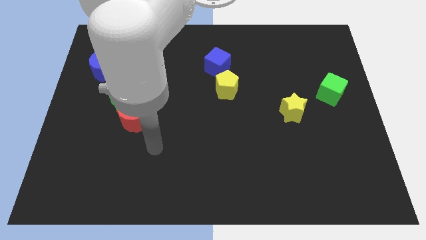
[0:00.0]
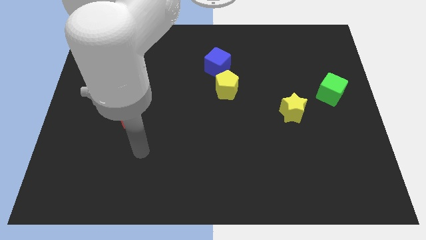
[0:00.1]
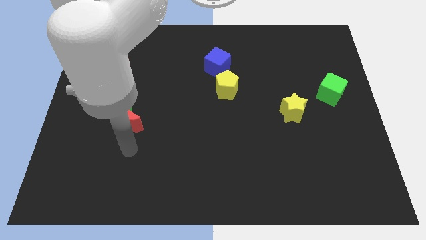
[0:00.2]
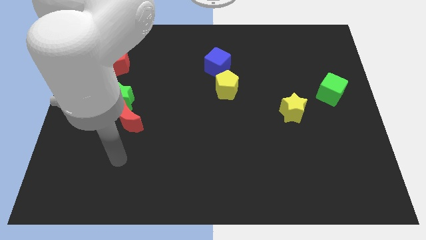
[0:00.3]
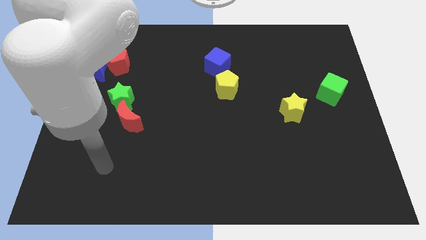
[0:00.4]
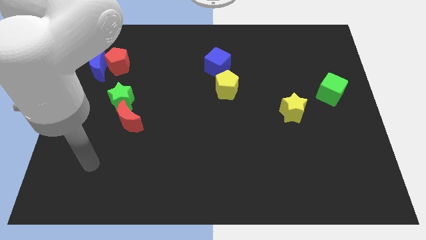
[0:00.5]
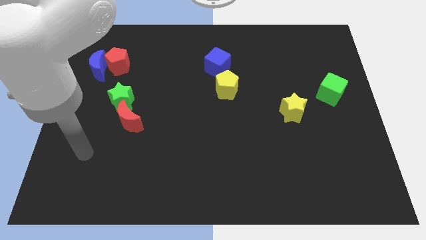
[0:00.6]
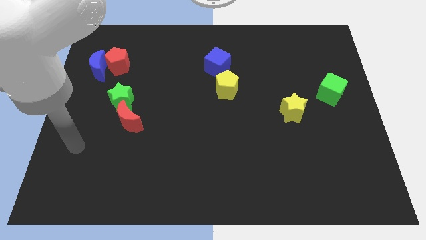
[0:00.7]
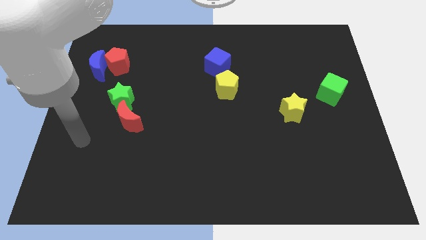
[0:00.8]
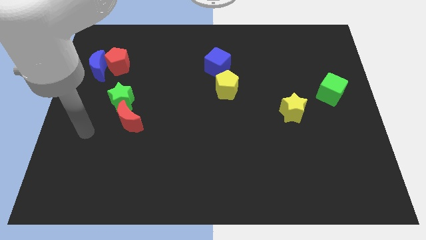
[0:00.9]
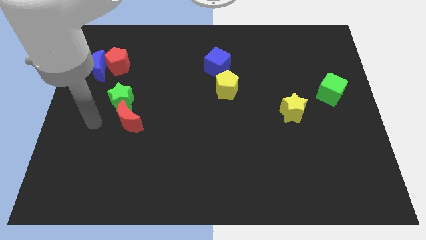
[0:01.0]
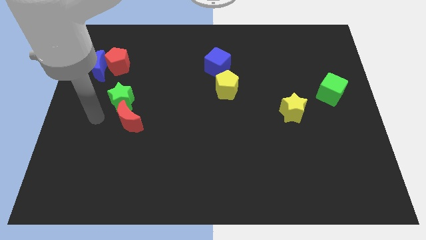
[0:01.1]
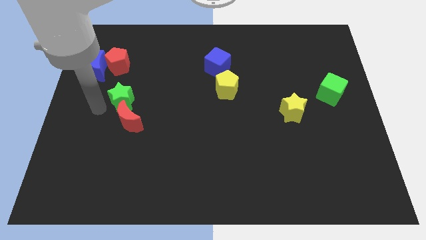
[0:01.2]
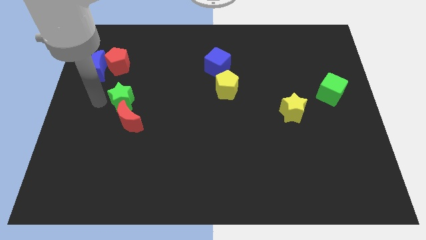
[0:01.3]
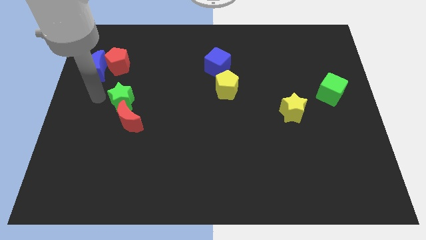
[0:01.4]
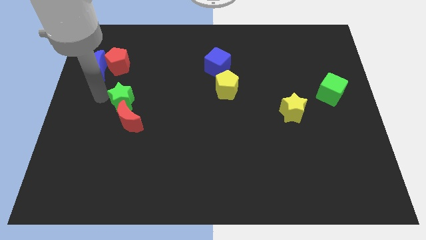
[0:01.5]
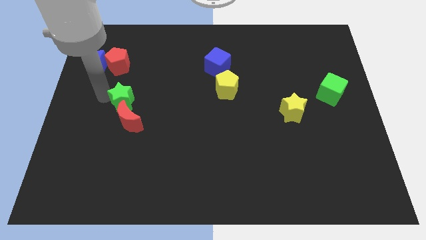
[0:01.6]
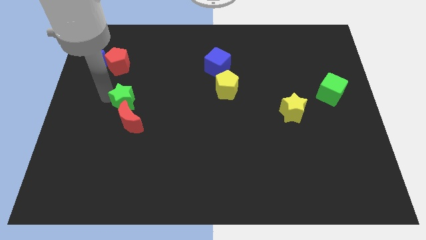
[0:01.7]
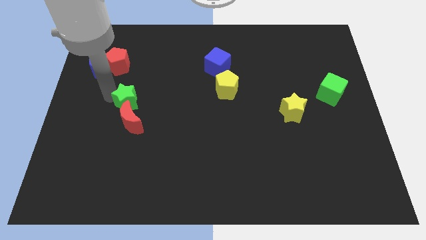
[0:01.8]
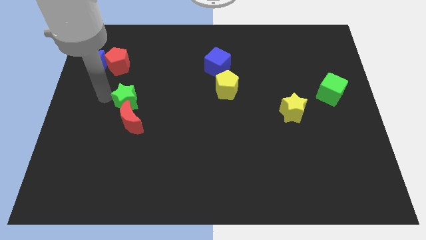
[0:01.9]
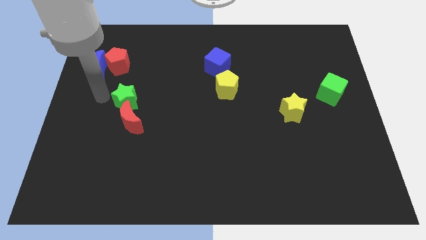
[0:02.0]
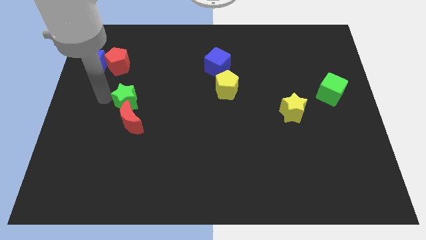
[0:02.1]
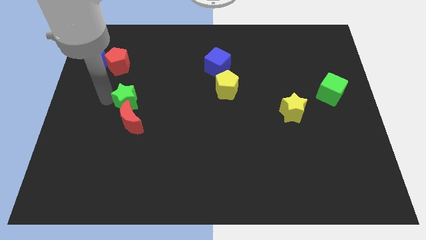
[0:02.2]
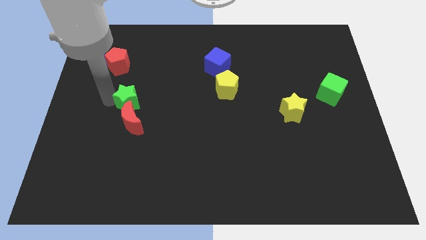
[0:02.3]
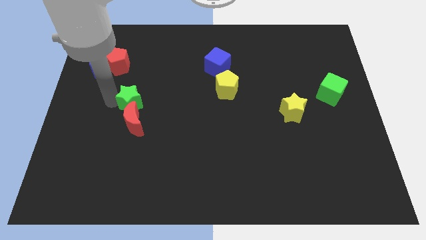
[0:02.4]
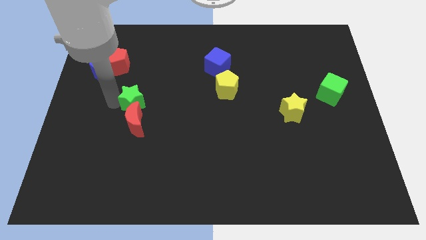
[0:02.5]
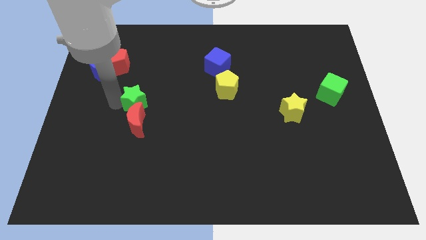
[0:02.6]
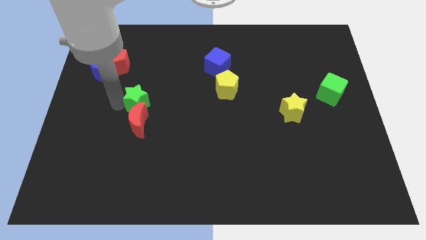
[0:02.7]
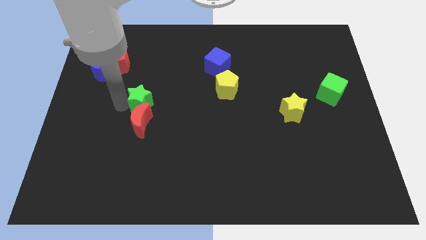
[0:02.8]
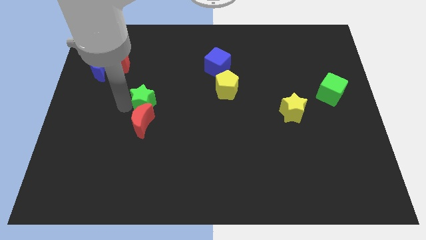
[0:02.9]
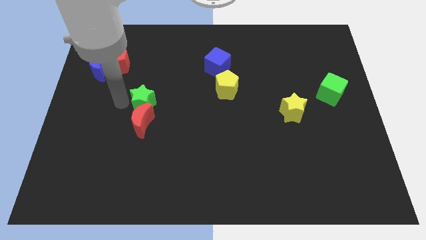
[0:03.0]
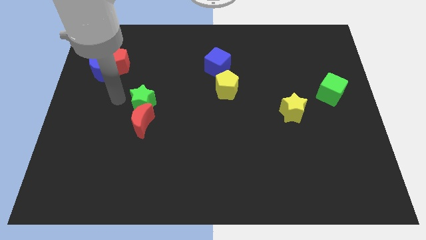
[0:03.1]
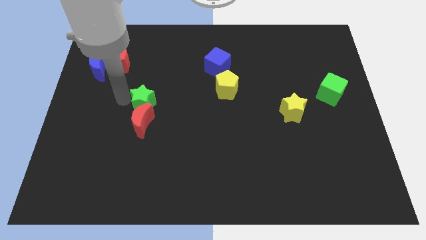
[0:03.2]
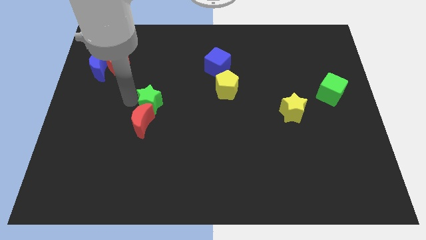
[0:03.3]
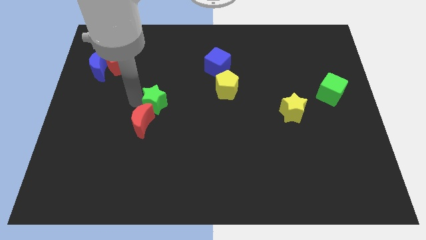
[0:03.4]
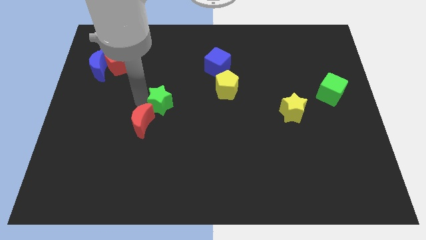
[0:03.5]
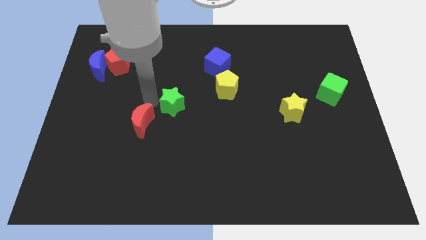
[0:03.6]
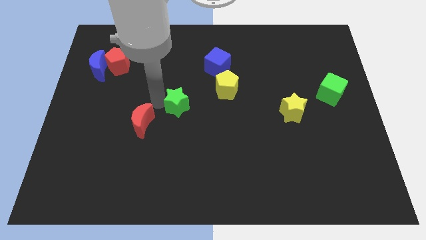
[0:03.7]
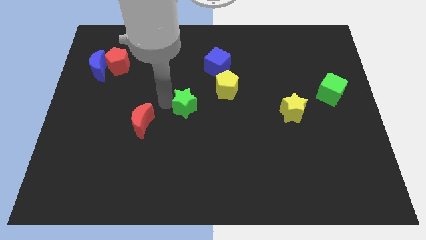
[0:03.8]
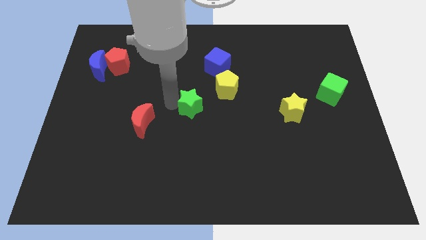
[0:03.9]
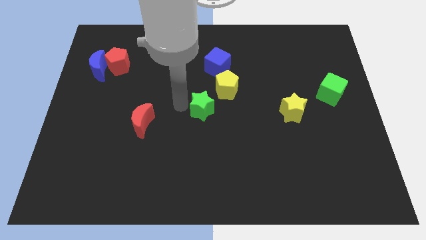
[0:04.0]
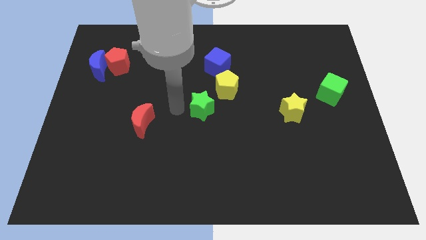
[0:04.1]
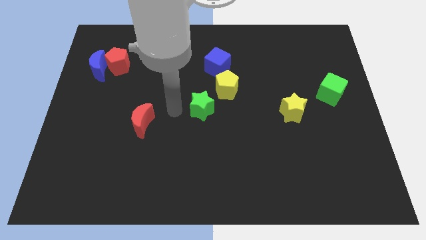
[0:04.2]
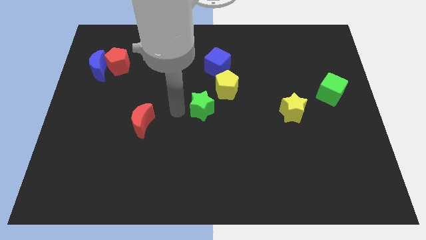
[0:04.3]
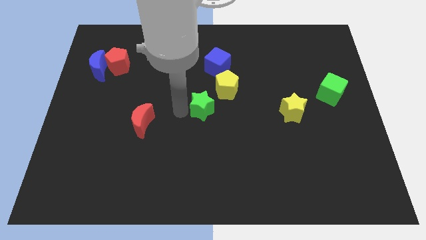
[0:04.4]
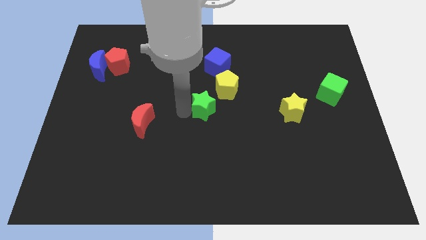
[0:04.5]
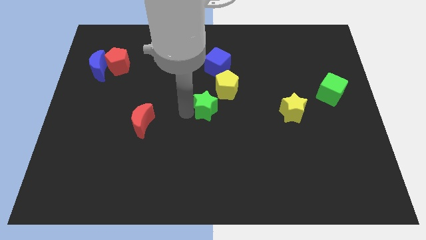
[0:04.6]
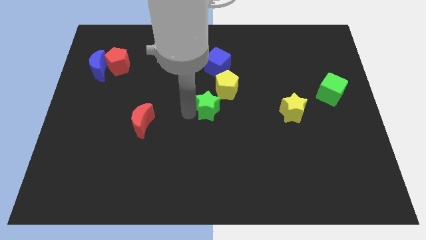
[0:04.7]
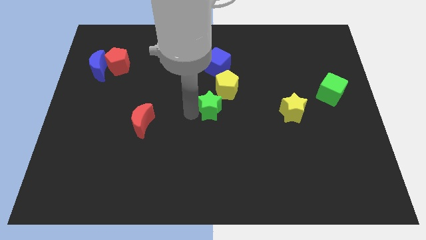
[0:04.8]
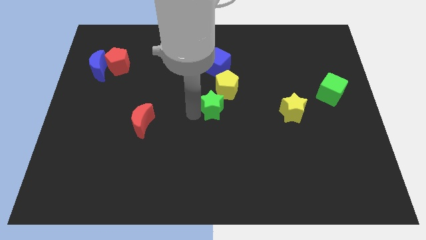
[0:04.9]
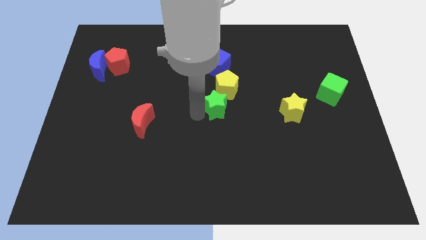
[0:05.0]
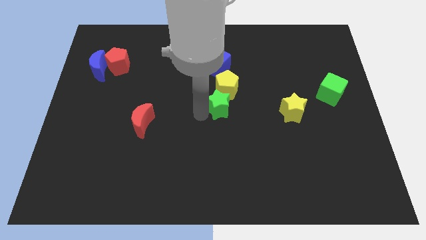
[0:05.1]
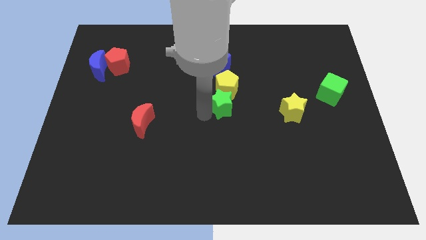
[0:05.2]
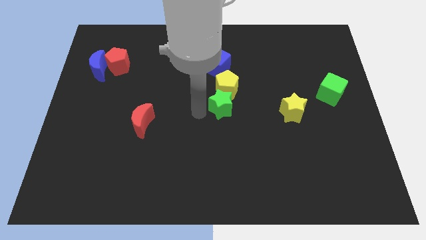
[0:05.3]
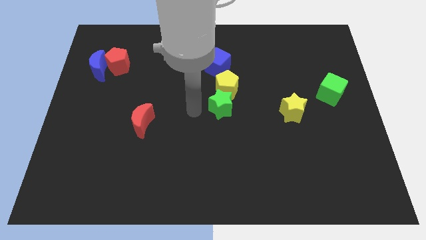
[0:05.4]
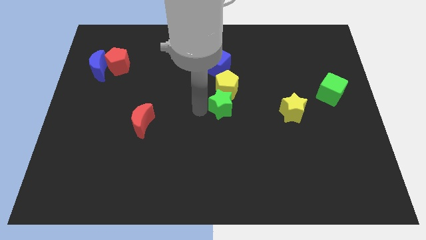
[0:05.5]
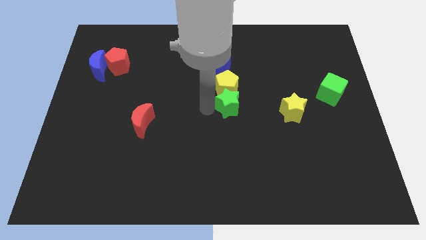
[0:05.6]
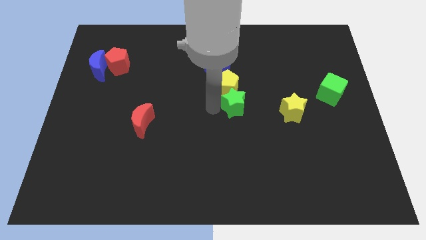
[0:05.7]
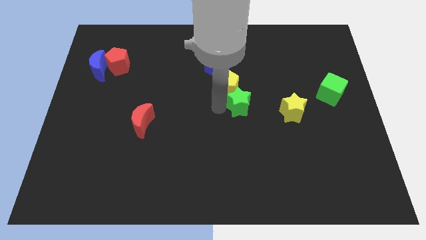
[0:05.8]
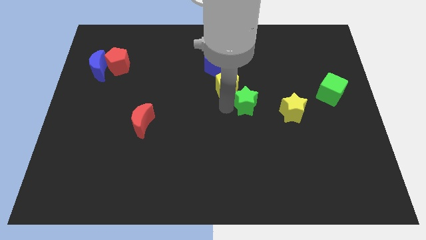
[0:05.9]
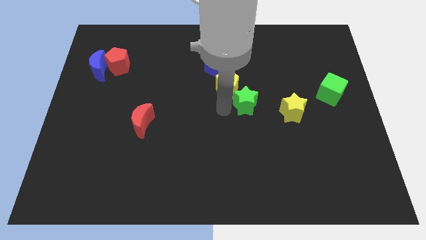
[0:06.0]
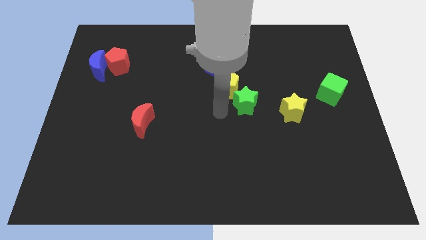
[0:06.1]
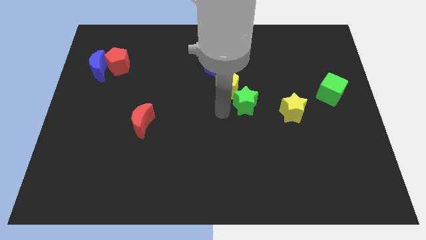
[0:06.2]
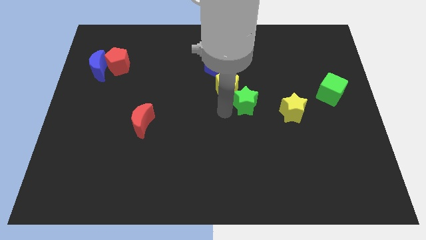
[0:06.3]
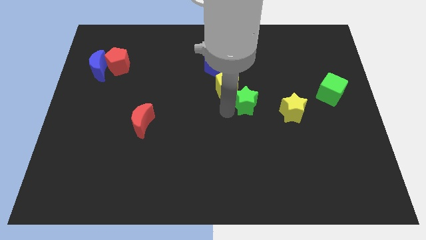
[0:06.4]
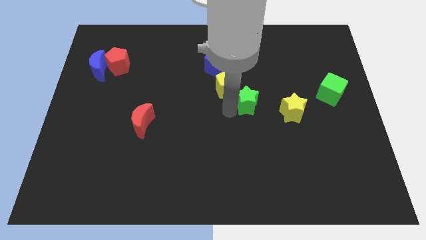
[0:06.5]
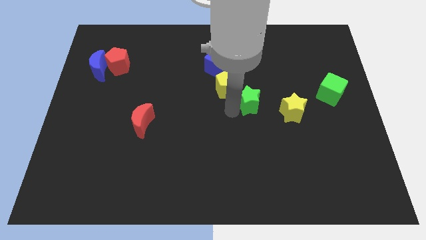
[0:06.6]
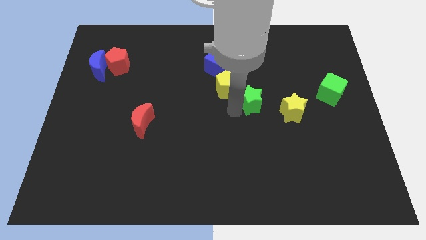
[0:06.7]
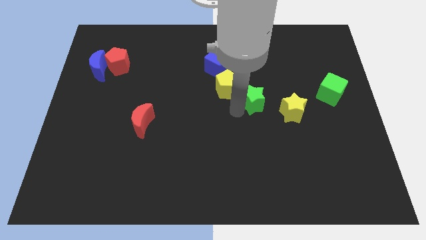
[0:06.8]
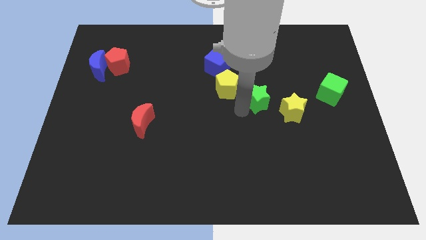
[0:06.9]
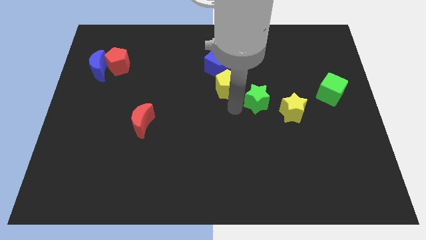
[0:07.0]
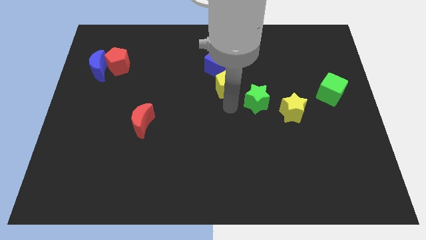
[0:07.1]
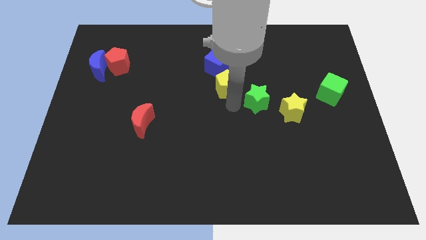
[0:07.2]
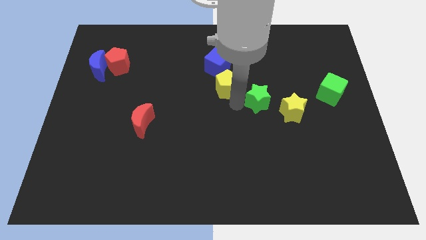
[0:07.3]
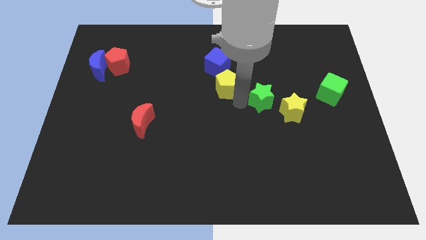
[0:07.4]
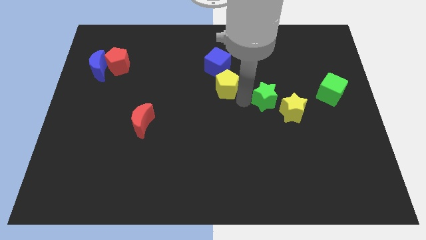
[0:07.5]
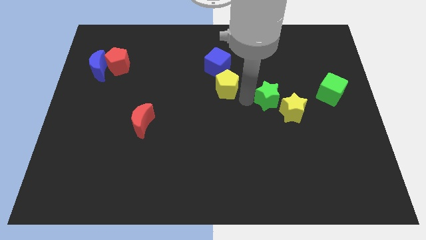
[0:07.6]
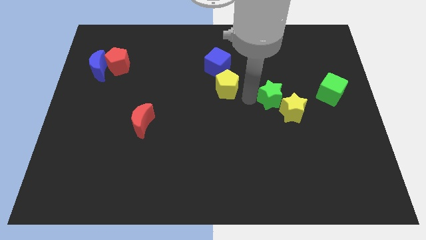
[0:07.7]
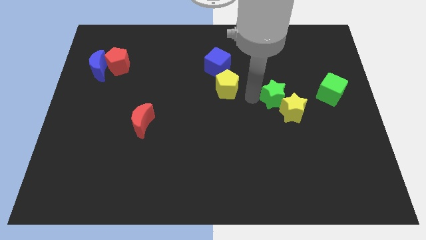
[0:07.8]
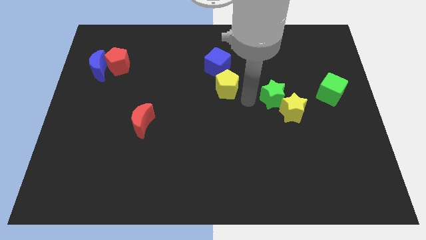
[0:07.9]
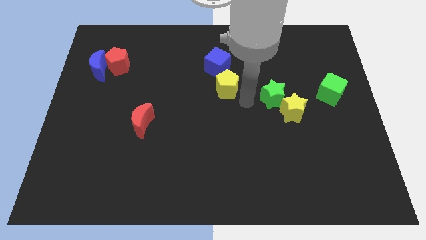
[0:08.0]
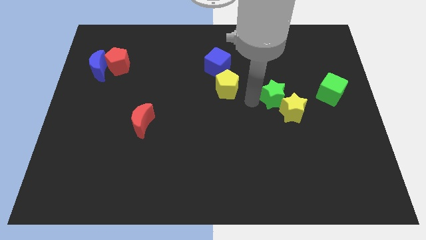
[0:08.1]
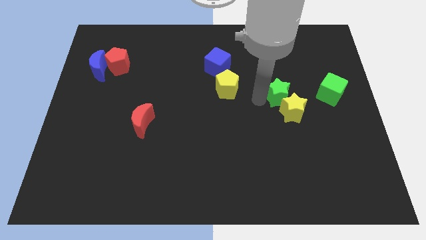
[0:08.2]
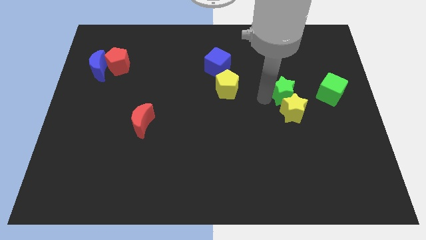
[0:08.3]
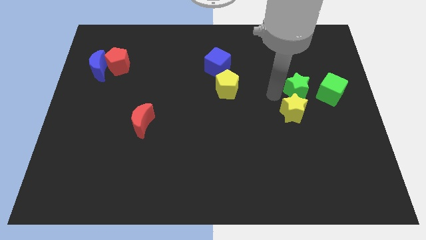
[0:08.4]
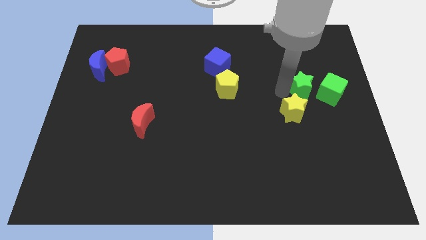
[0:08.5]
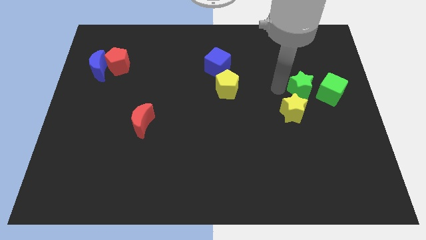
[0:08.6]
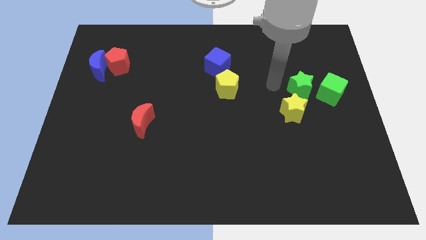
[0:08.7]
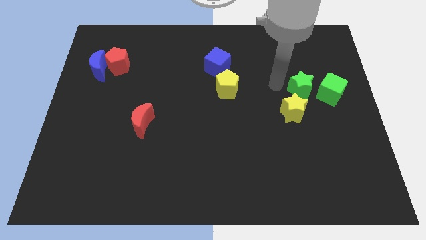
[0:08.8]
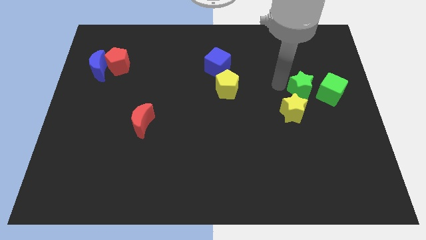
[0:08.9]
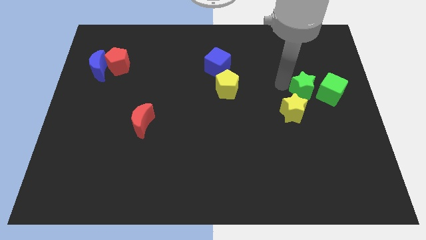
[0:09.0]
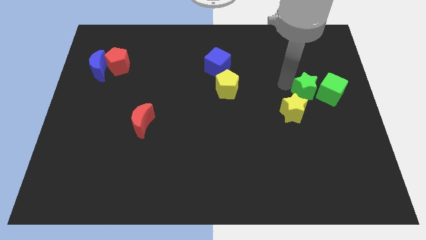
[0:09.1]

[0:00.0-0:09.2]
move the green star towards the green cube
